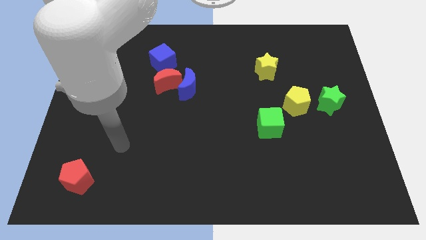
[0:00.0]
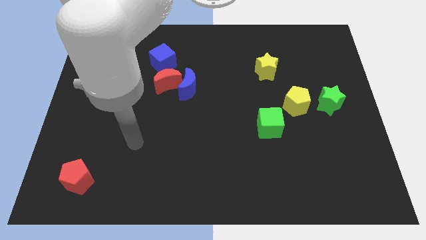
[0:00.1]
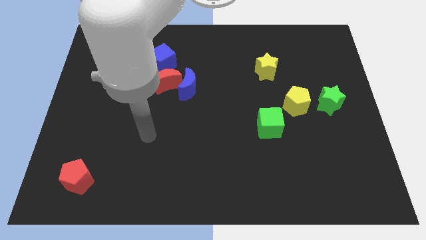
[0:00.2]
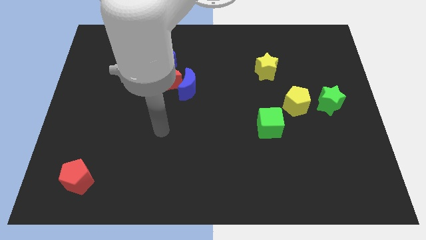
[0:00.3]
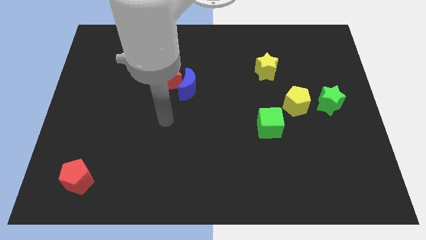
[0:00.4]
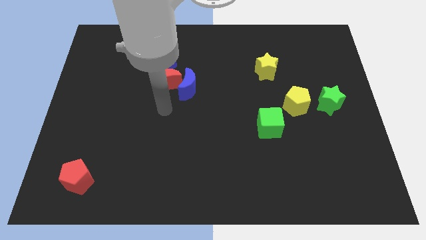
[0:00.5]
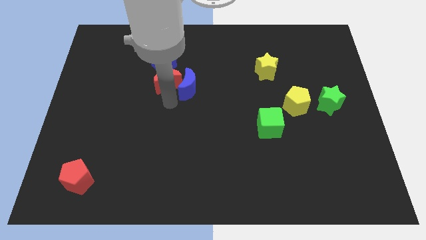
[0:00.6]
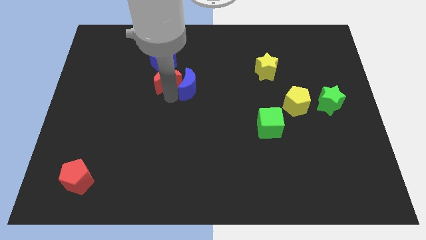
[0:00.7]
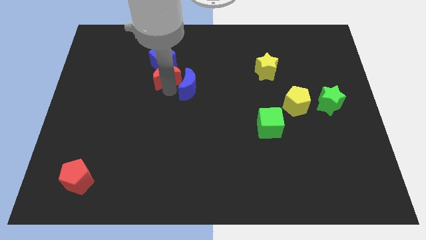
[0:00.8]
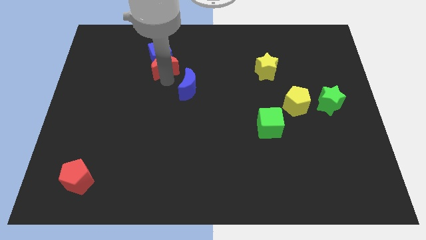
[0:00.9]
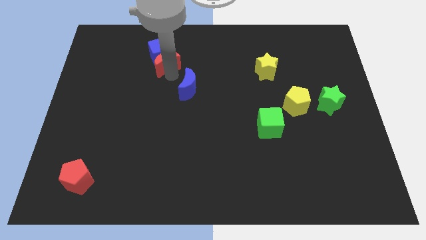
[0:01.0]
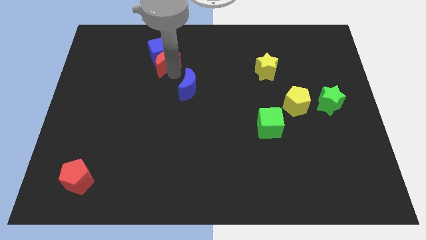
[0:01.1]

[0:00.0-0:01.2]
move the blue moon away from the red moon

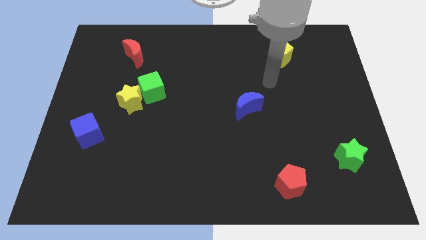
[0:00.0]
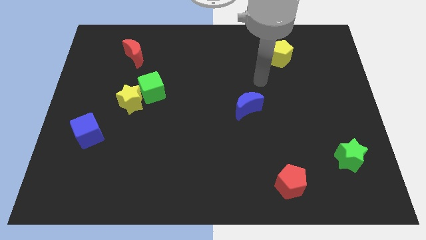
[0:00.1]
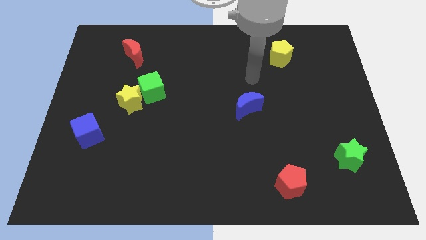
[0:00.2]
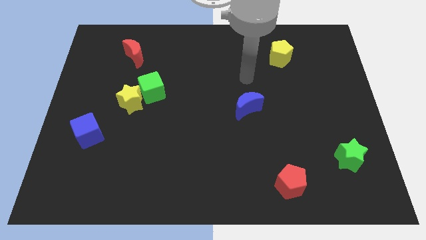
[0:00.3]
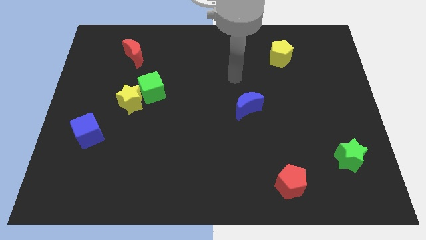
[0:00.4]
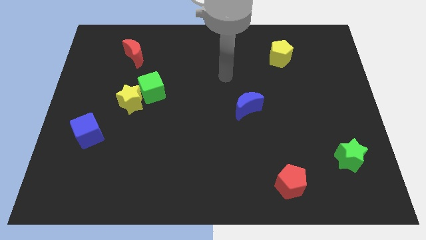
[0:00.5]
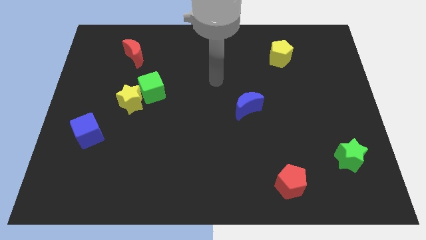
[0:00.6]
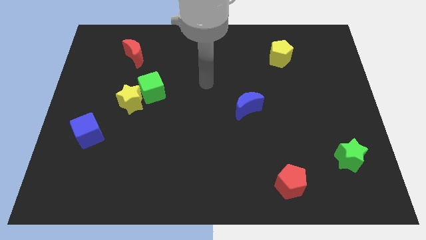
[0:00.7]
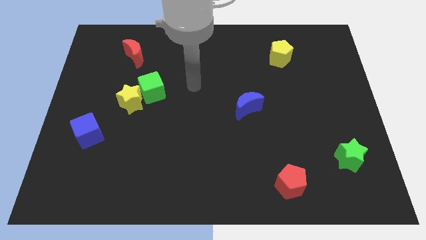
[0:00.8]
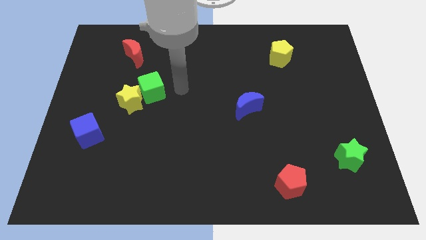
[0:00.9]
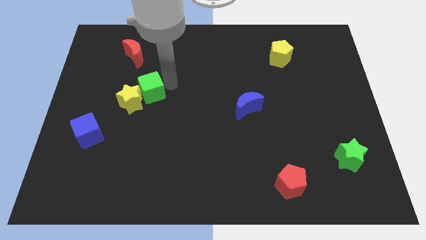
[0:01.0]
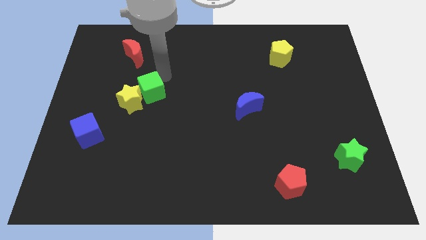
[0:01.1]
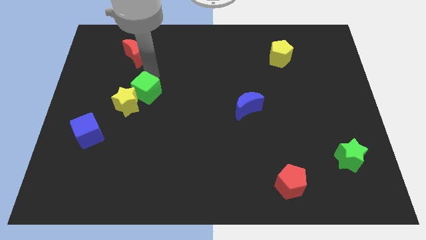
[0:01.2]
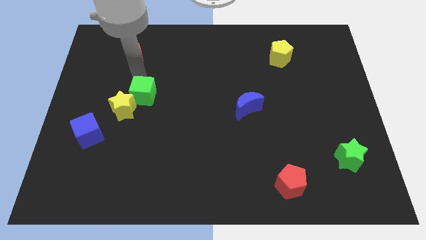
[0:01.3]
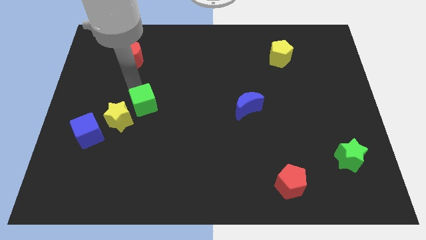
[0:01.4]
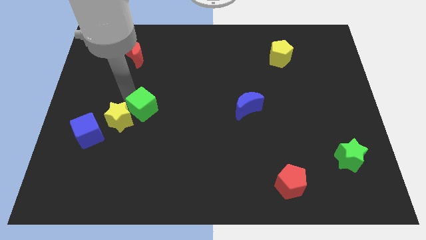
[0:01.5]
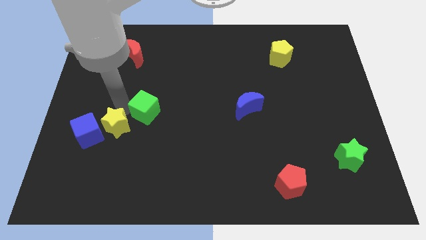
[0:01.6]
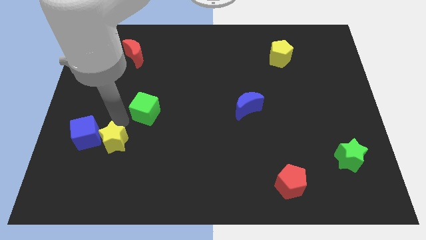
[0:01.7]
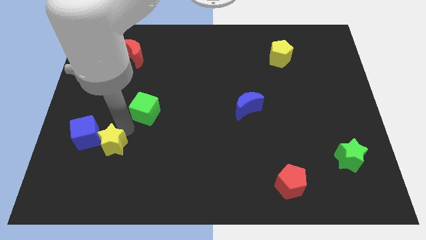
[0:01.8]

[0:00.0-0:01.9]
move the green cube away from the yellow star

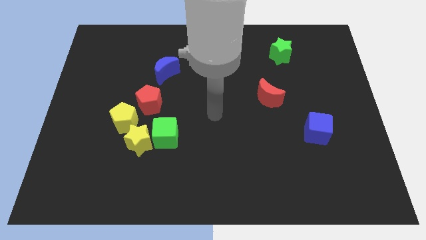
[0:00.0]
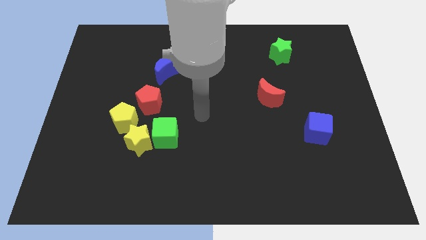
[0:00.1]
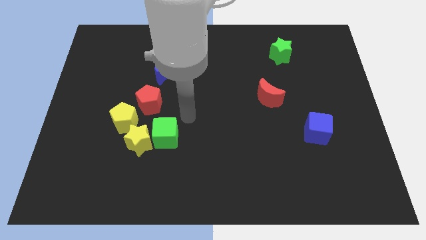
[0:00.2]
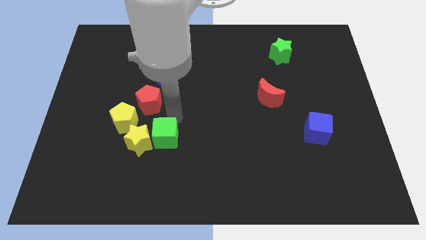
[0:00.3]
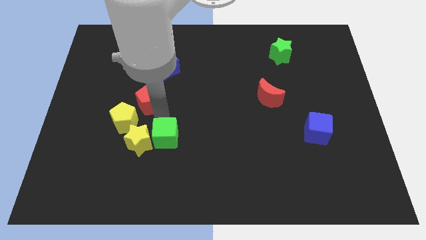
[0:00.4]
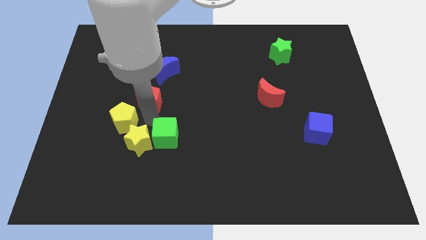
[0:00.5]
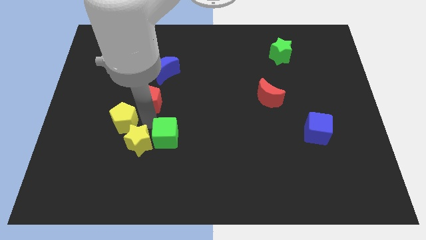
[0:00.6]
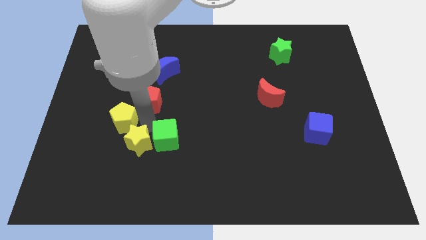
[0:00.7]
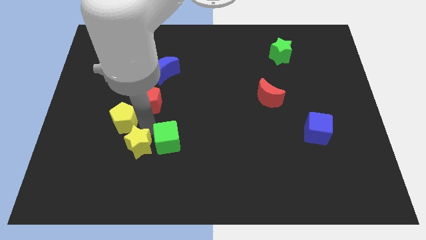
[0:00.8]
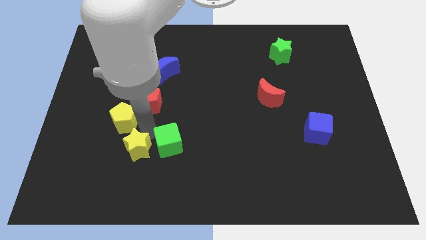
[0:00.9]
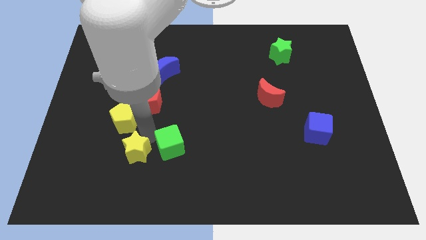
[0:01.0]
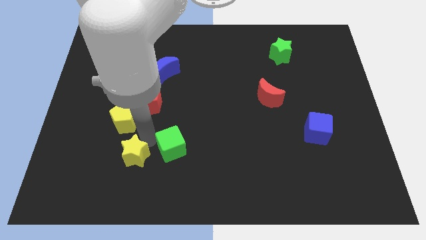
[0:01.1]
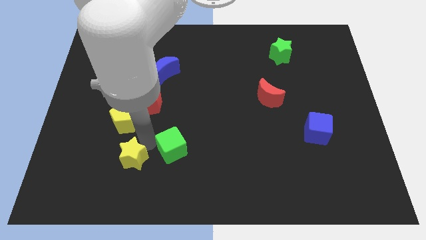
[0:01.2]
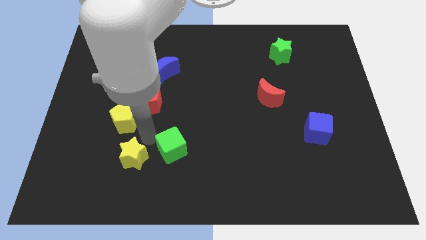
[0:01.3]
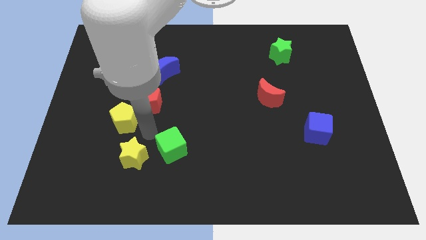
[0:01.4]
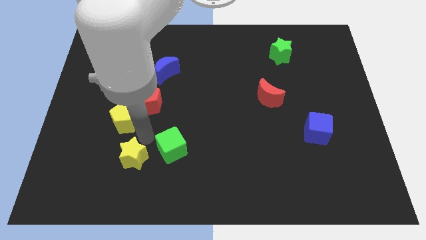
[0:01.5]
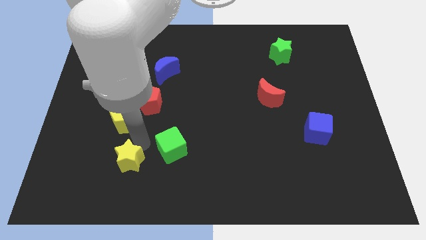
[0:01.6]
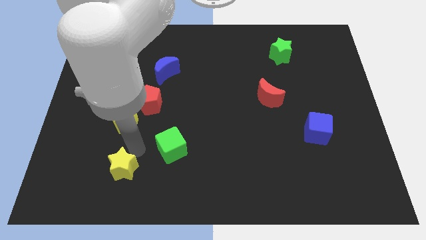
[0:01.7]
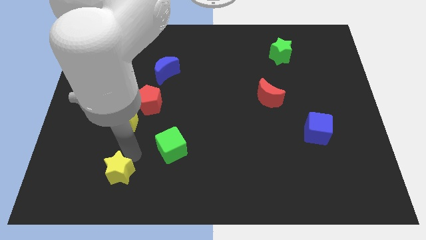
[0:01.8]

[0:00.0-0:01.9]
separate the yellow star from the green cube and yellow pentagon

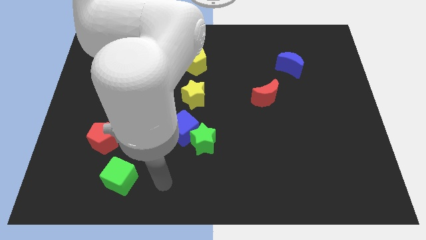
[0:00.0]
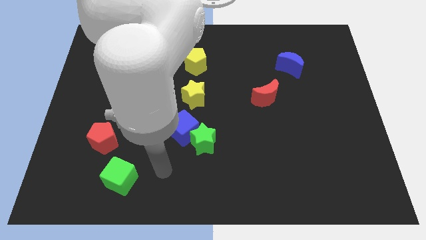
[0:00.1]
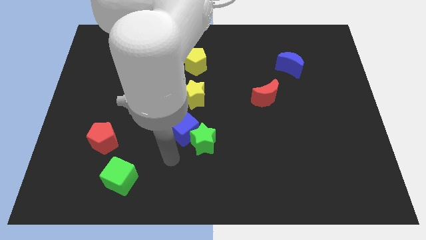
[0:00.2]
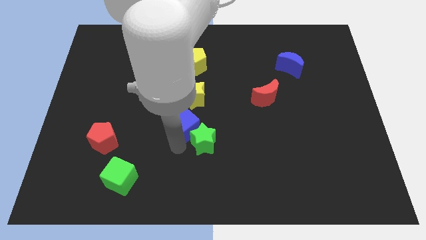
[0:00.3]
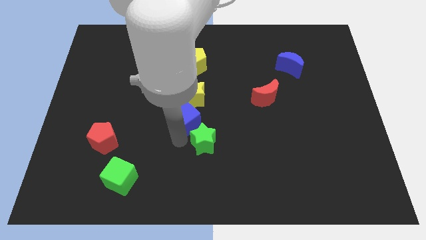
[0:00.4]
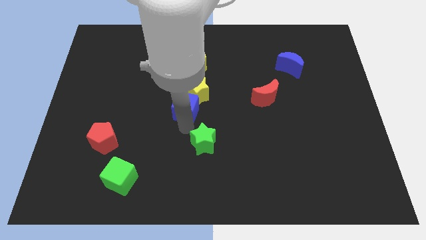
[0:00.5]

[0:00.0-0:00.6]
pull the green star apart from the blue cube

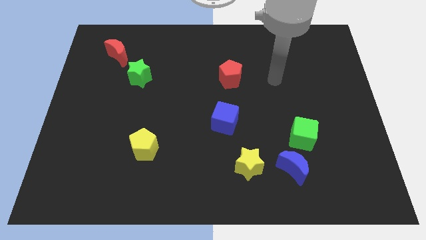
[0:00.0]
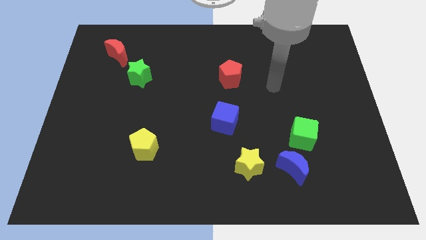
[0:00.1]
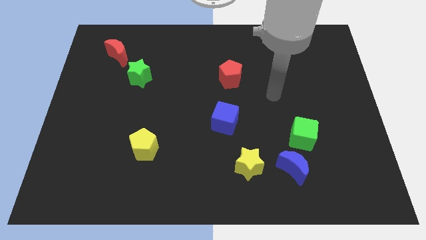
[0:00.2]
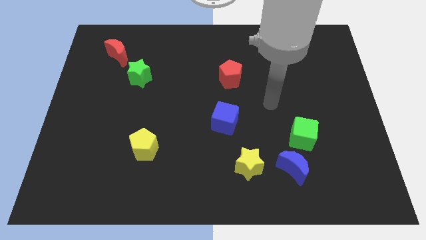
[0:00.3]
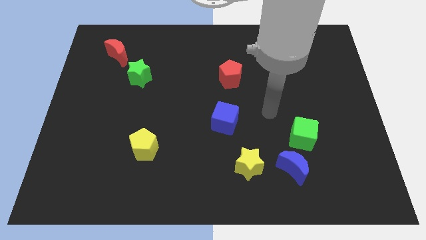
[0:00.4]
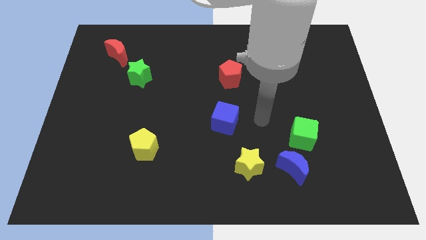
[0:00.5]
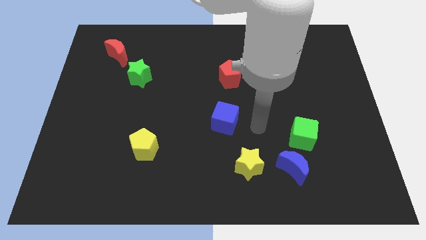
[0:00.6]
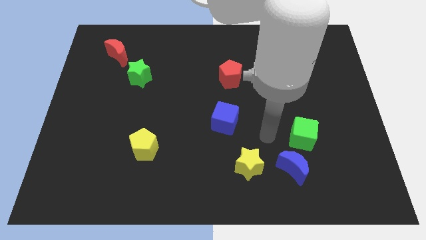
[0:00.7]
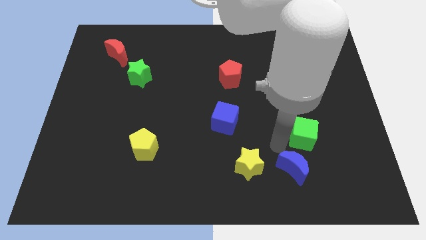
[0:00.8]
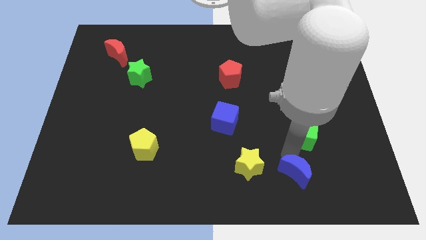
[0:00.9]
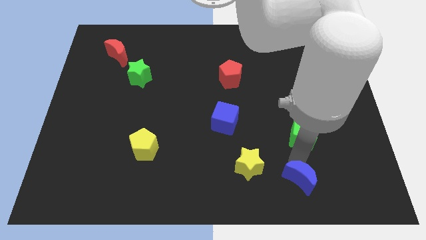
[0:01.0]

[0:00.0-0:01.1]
separate the green cube from the blue moon

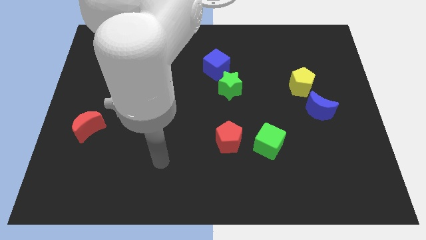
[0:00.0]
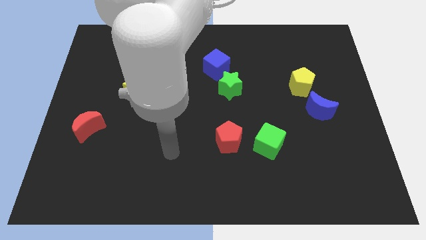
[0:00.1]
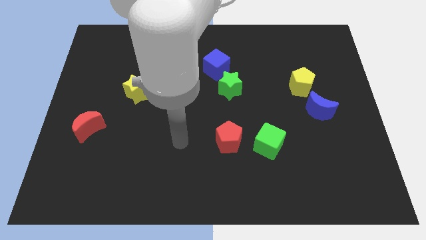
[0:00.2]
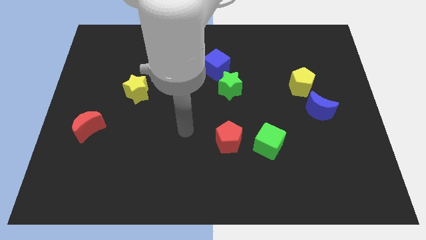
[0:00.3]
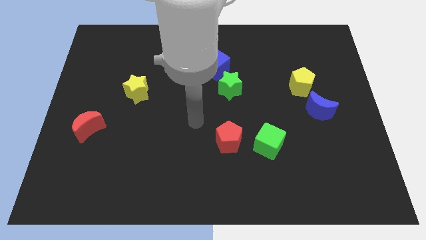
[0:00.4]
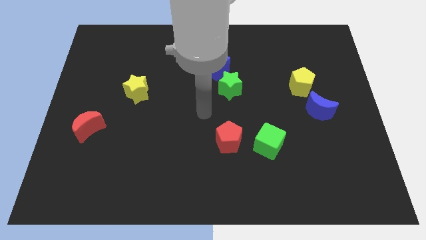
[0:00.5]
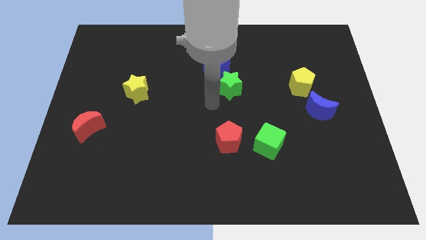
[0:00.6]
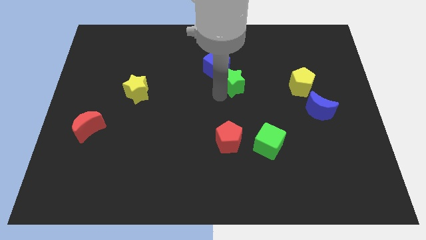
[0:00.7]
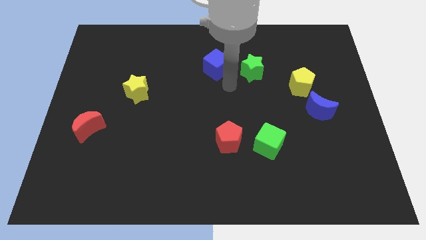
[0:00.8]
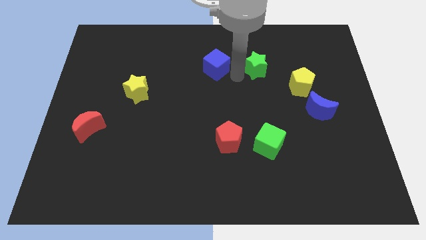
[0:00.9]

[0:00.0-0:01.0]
separate the blue cube from the green star

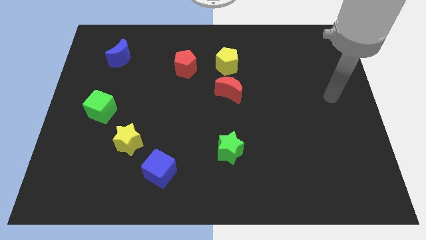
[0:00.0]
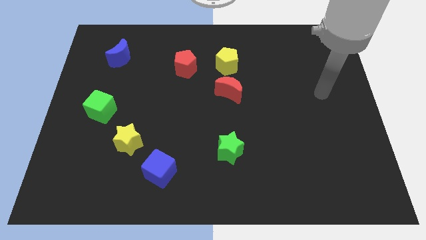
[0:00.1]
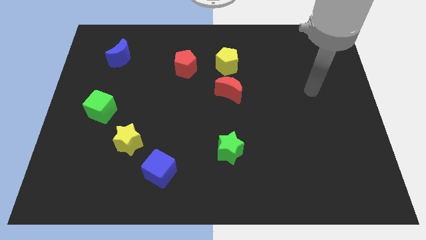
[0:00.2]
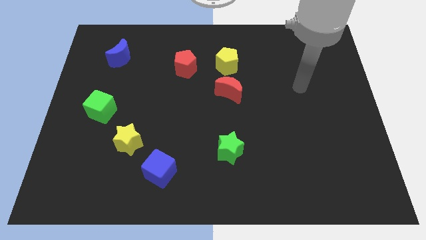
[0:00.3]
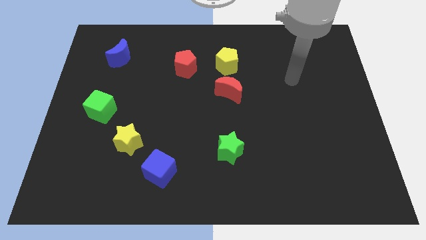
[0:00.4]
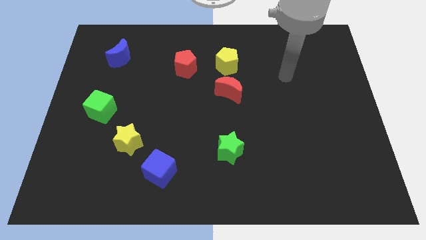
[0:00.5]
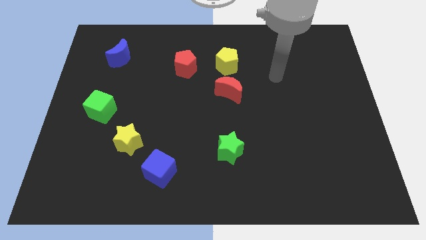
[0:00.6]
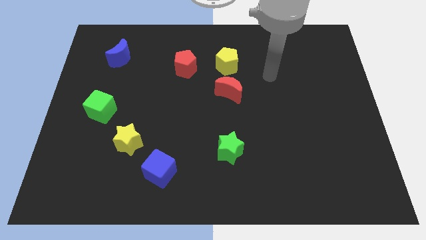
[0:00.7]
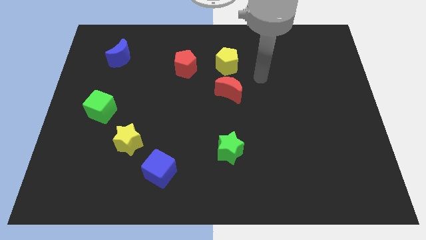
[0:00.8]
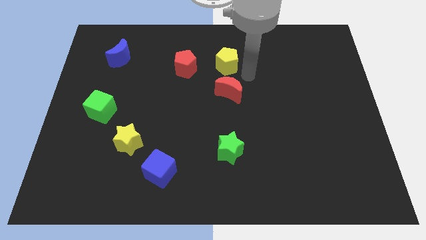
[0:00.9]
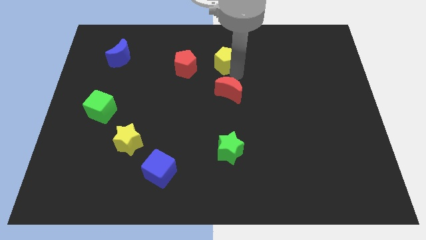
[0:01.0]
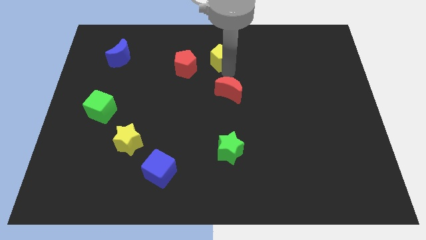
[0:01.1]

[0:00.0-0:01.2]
move the red moon away from the yellow pentagon

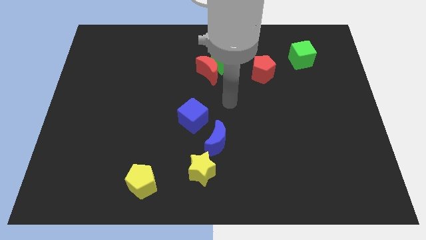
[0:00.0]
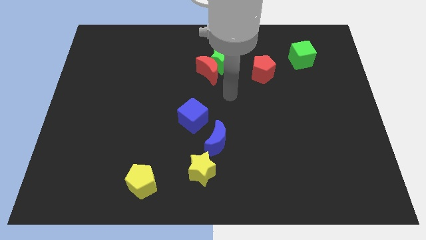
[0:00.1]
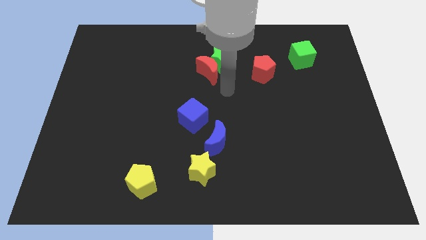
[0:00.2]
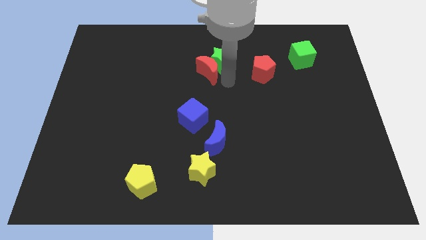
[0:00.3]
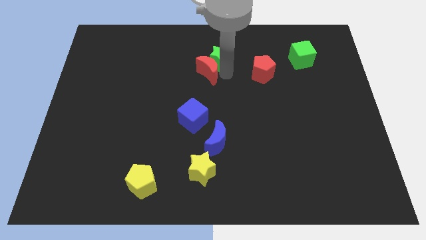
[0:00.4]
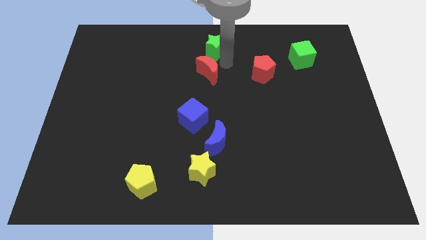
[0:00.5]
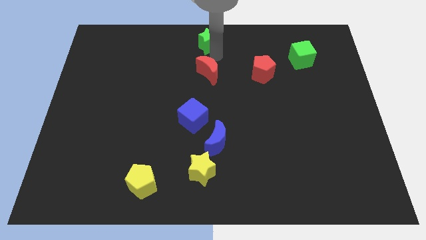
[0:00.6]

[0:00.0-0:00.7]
separate the red moon from the green star
